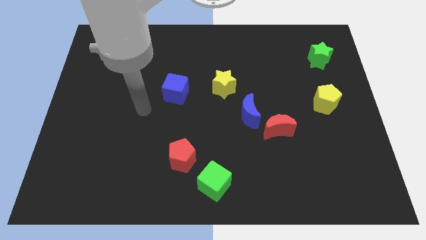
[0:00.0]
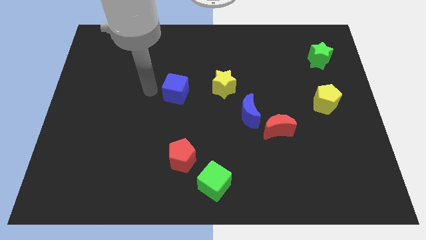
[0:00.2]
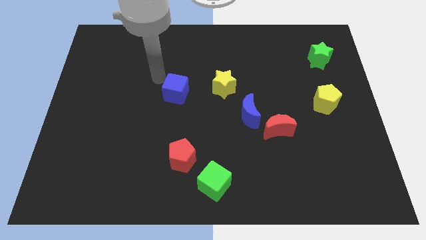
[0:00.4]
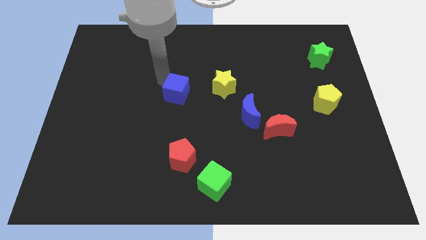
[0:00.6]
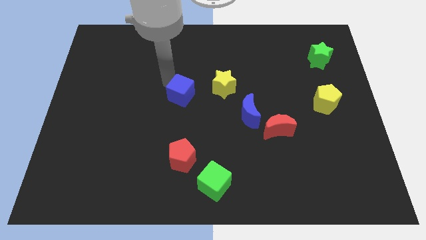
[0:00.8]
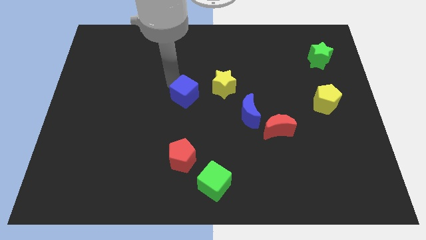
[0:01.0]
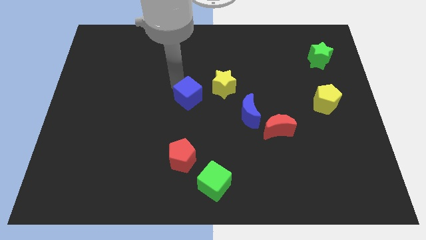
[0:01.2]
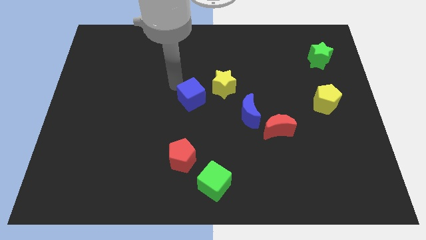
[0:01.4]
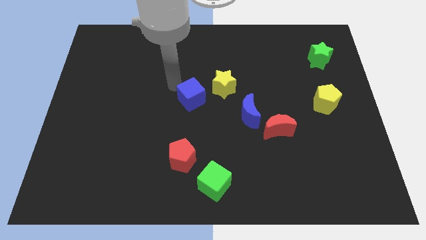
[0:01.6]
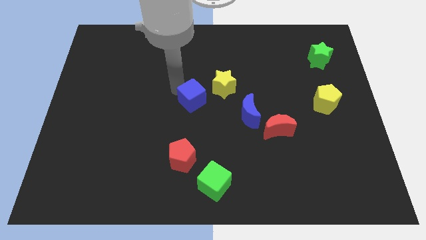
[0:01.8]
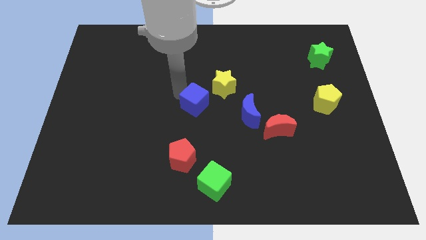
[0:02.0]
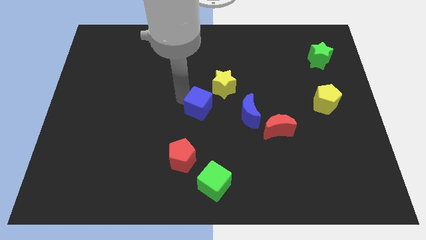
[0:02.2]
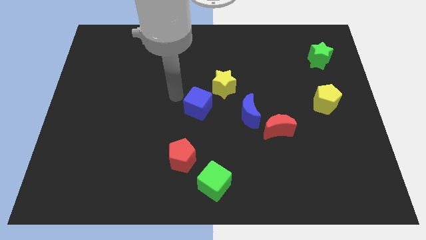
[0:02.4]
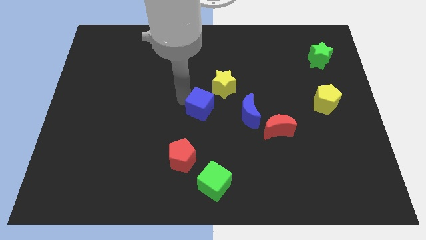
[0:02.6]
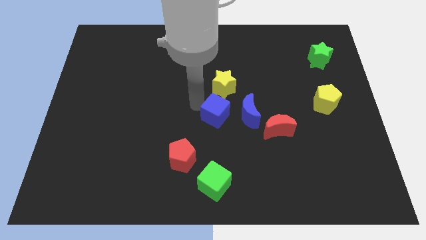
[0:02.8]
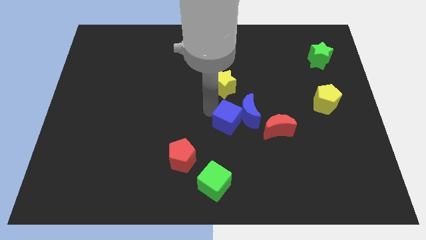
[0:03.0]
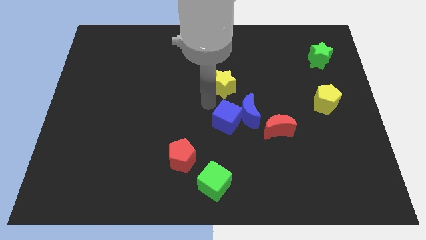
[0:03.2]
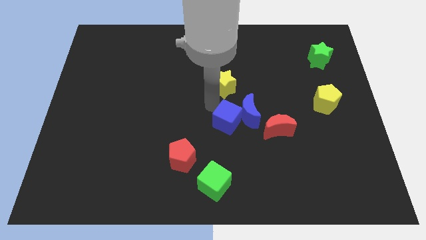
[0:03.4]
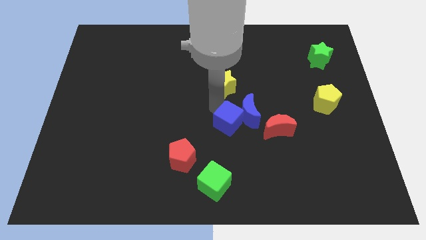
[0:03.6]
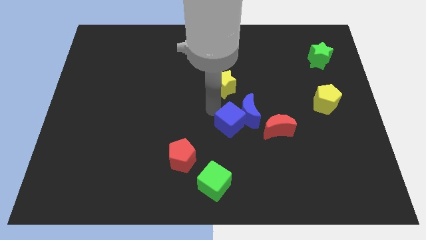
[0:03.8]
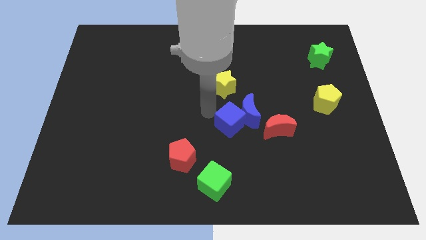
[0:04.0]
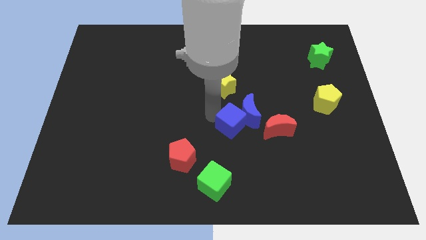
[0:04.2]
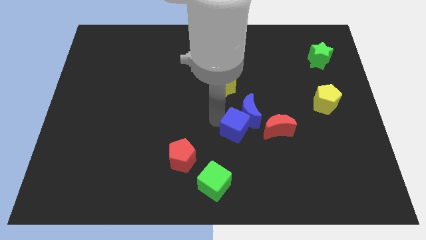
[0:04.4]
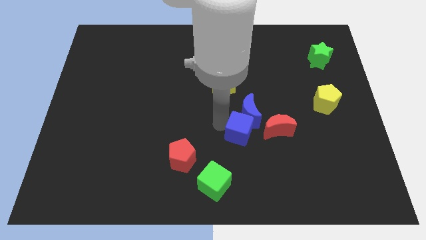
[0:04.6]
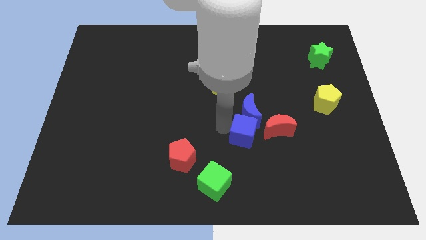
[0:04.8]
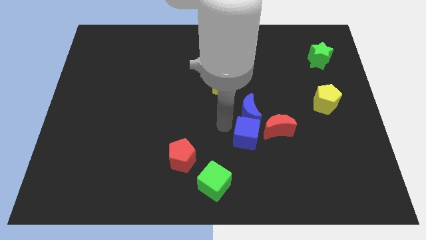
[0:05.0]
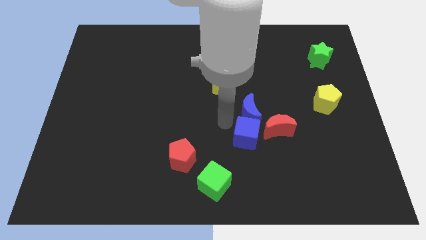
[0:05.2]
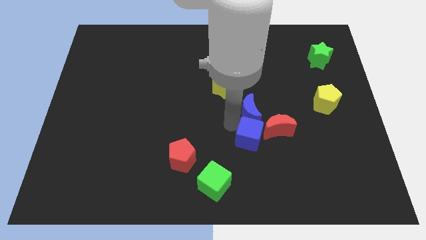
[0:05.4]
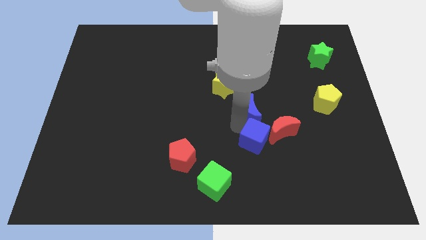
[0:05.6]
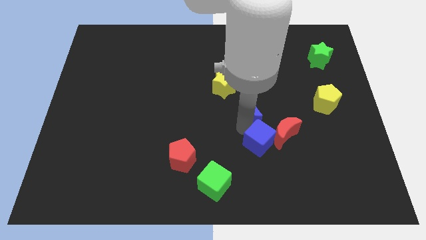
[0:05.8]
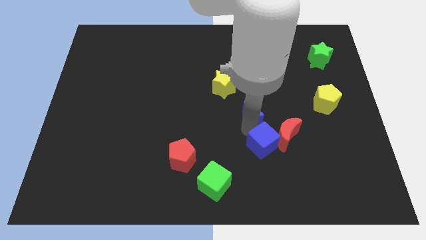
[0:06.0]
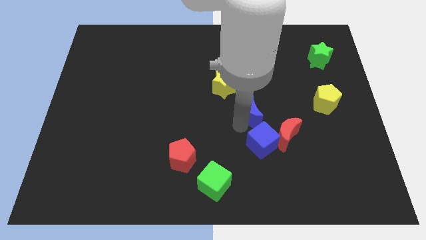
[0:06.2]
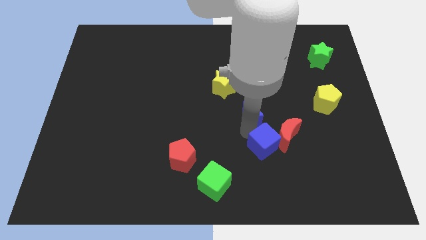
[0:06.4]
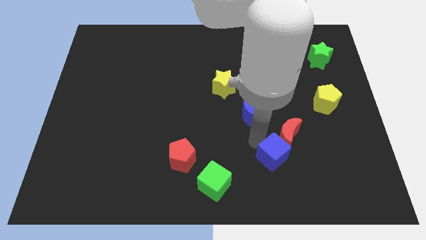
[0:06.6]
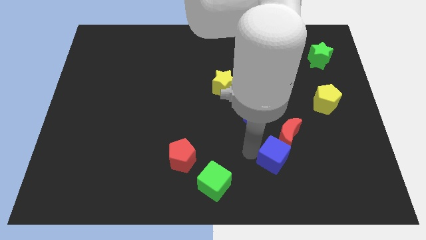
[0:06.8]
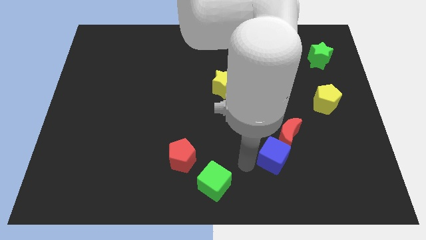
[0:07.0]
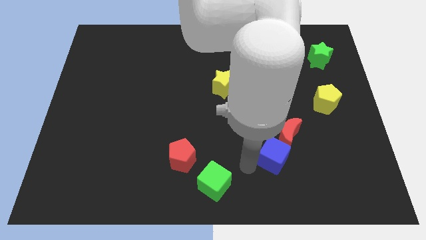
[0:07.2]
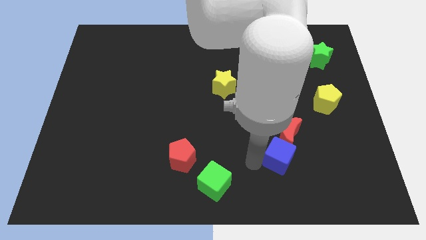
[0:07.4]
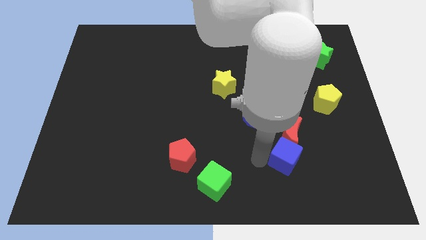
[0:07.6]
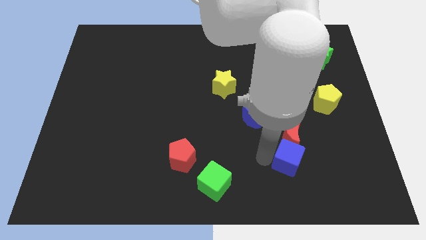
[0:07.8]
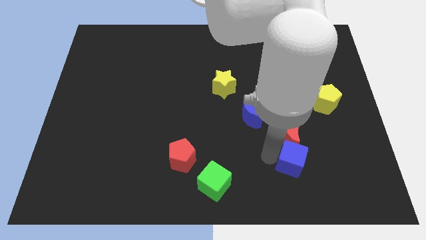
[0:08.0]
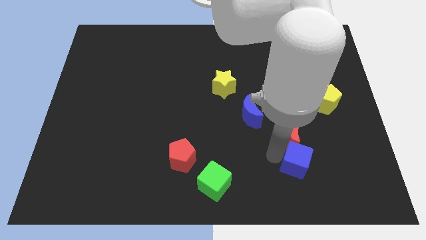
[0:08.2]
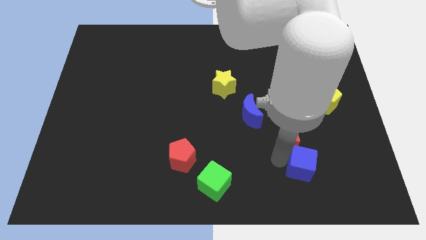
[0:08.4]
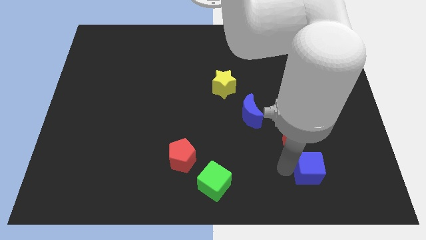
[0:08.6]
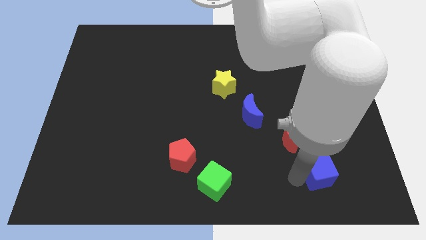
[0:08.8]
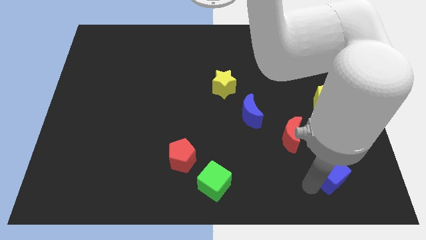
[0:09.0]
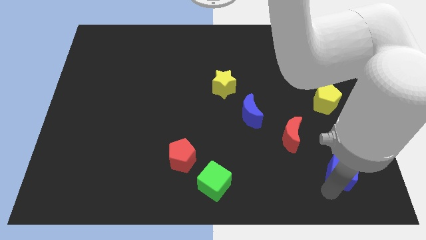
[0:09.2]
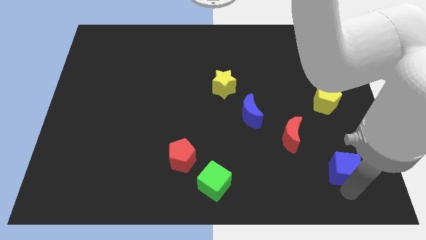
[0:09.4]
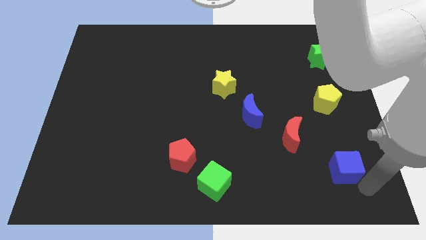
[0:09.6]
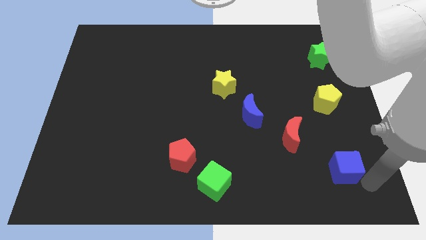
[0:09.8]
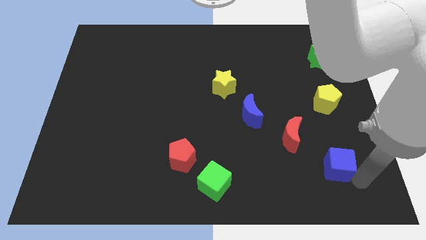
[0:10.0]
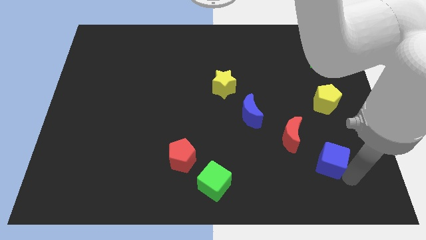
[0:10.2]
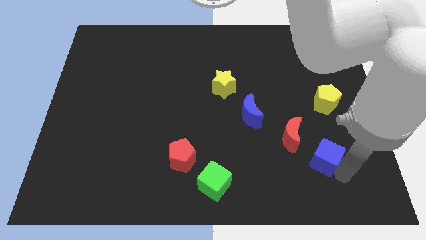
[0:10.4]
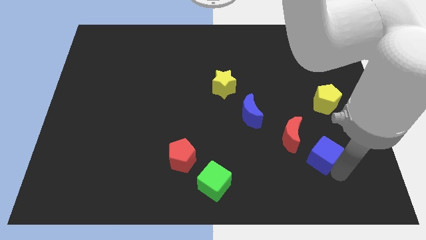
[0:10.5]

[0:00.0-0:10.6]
push the blue cube to the bottom side of the yellow pentagon

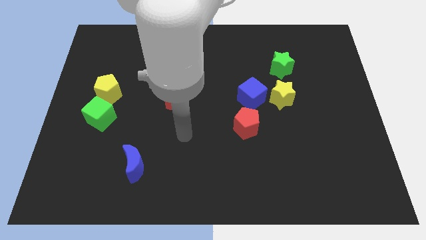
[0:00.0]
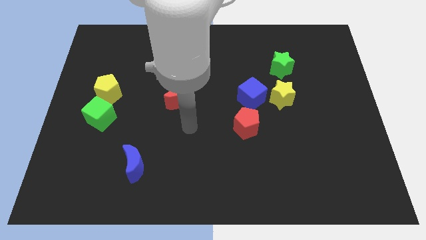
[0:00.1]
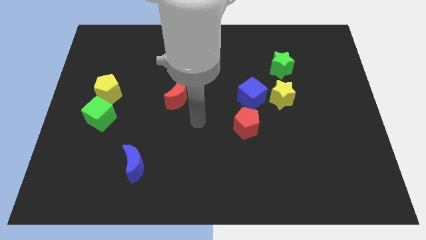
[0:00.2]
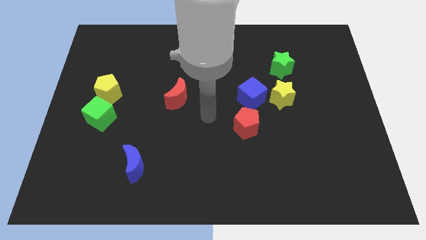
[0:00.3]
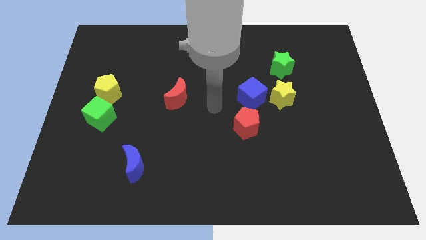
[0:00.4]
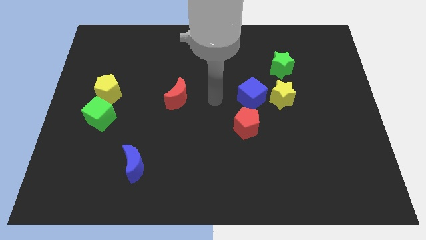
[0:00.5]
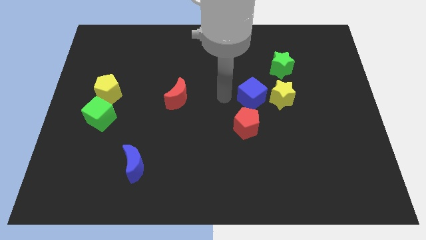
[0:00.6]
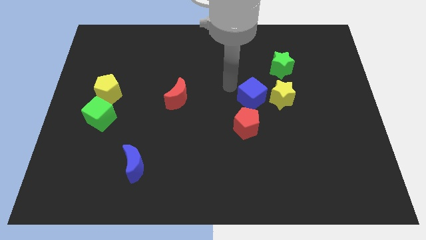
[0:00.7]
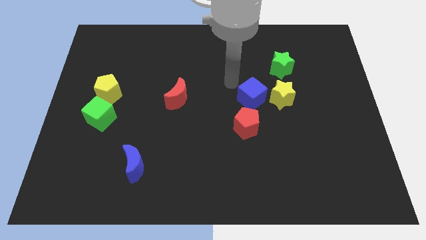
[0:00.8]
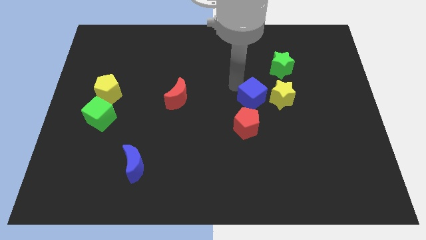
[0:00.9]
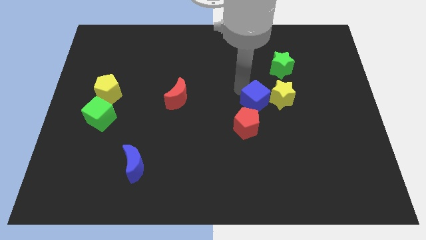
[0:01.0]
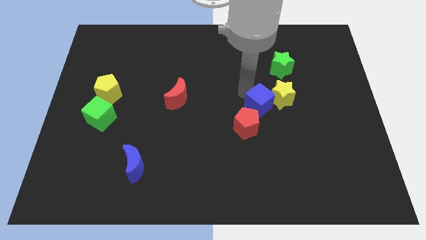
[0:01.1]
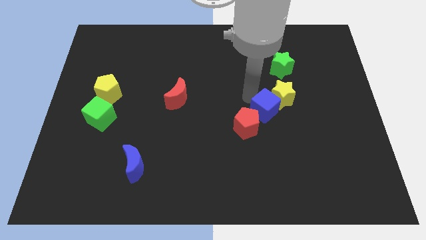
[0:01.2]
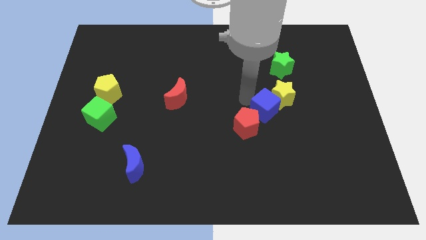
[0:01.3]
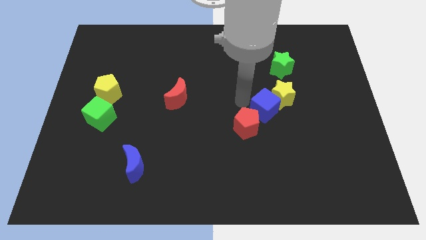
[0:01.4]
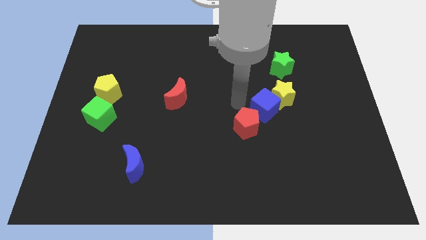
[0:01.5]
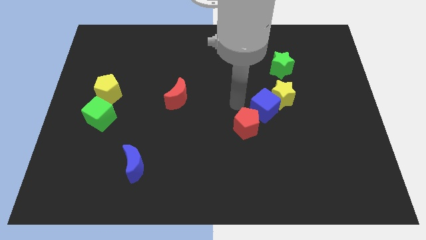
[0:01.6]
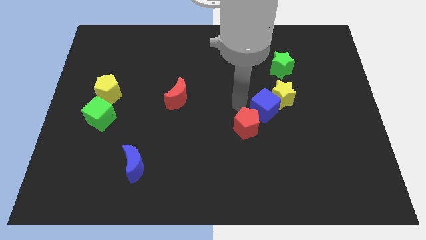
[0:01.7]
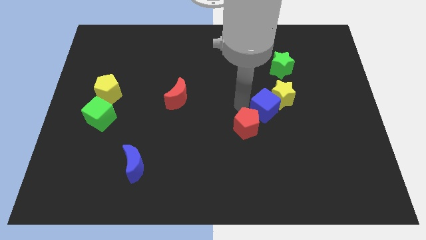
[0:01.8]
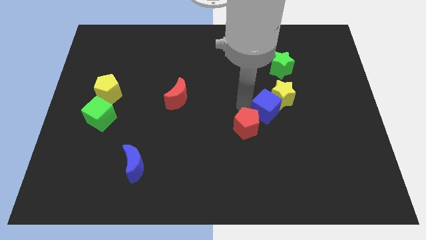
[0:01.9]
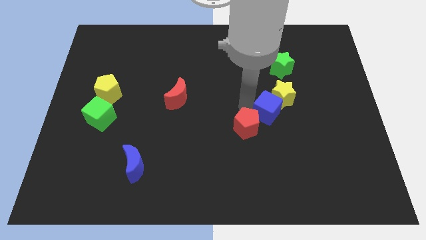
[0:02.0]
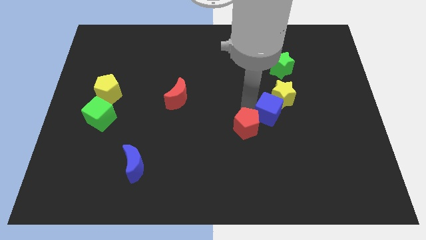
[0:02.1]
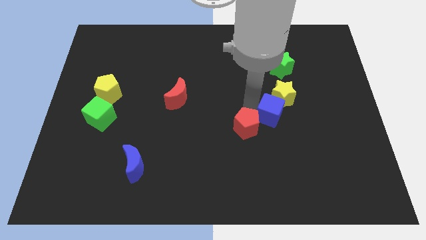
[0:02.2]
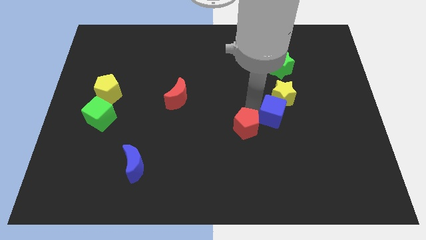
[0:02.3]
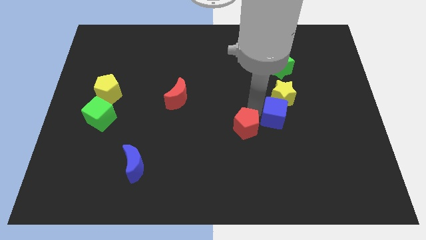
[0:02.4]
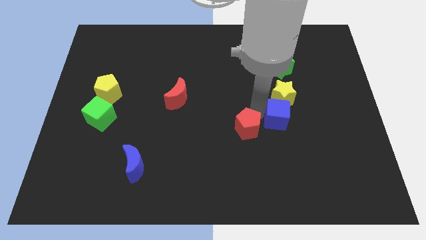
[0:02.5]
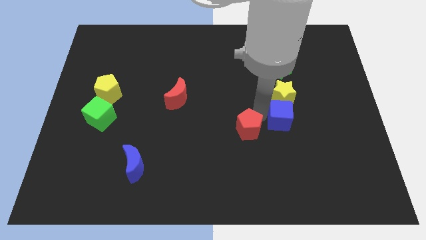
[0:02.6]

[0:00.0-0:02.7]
push the blue cube to the bottom right of the yellow star
